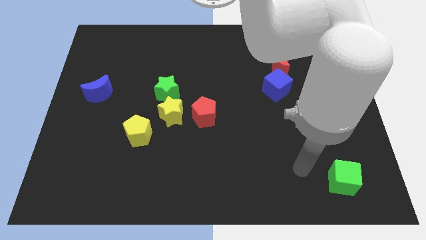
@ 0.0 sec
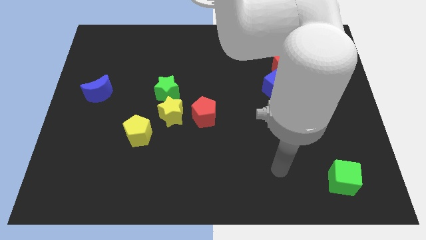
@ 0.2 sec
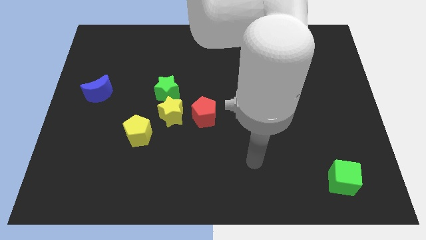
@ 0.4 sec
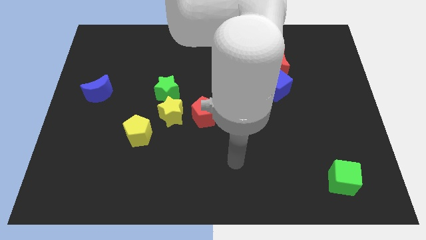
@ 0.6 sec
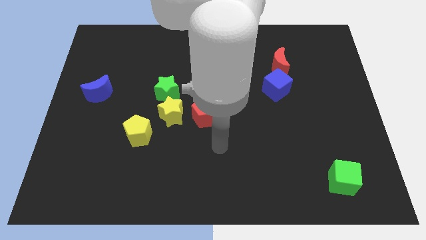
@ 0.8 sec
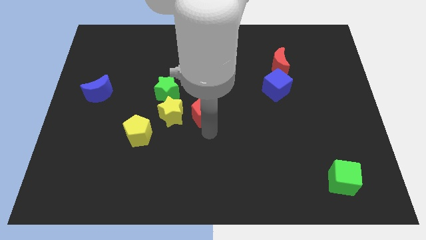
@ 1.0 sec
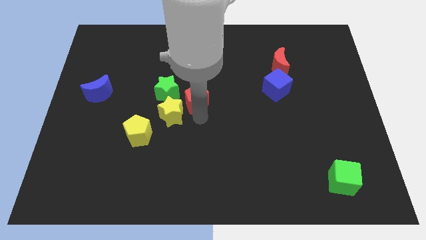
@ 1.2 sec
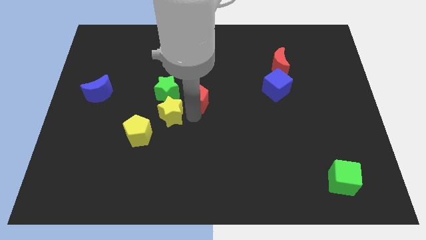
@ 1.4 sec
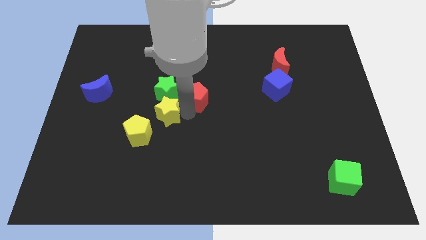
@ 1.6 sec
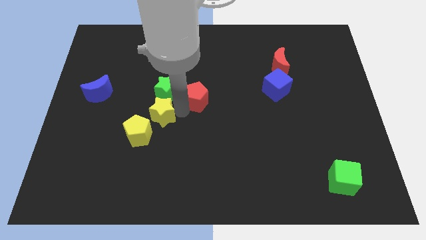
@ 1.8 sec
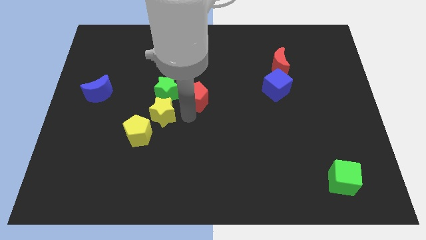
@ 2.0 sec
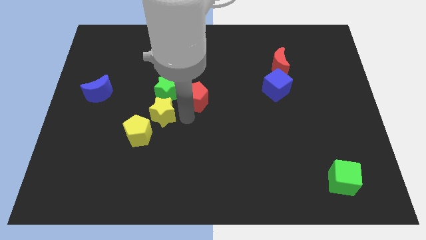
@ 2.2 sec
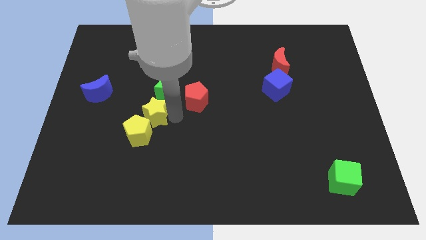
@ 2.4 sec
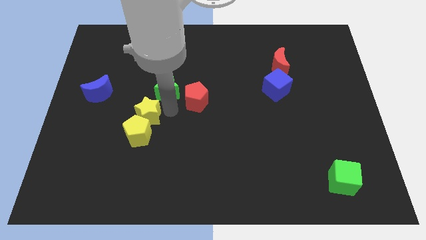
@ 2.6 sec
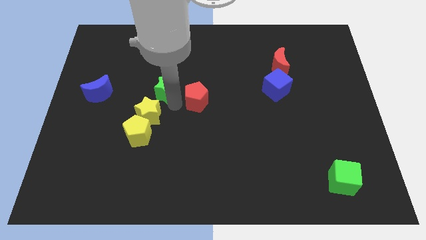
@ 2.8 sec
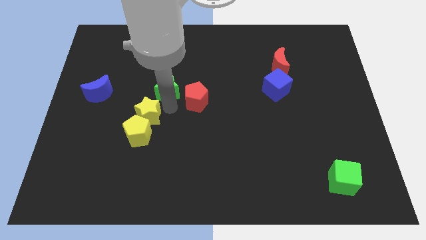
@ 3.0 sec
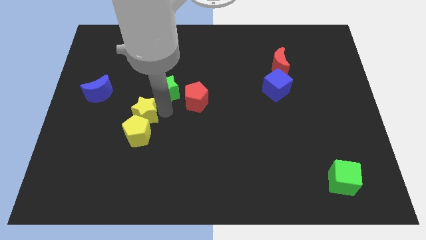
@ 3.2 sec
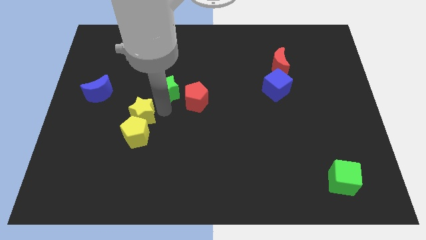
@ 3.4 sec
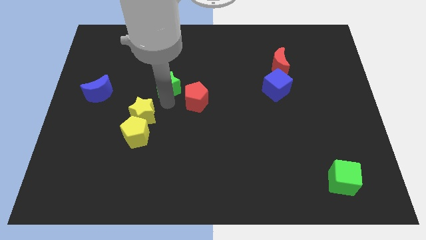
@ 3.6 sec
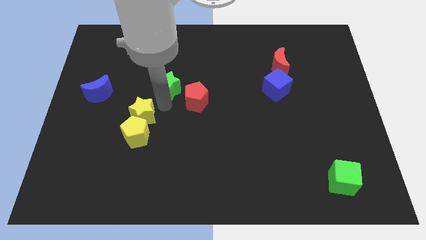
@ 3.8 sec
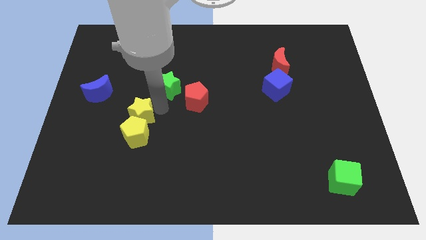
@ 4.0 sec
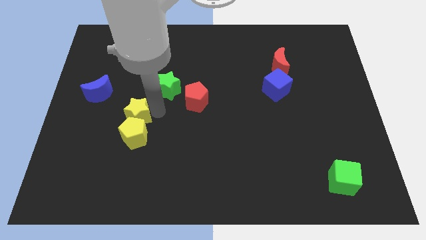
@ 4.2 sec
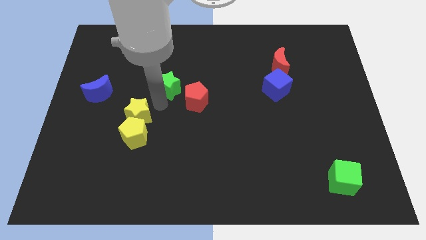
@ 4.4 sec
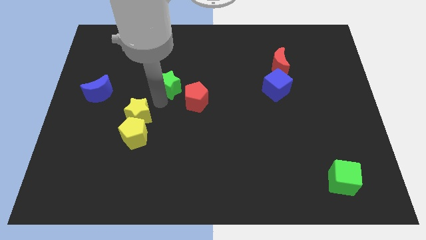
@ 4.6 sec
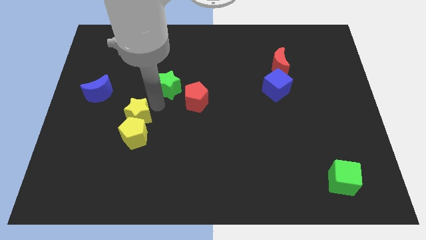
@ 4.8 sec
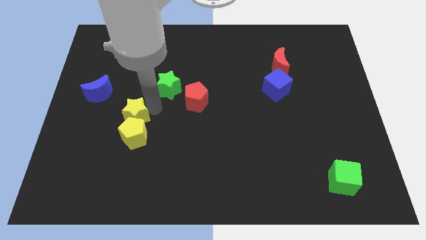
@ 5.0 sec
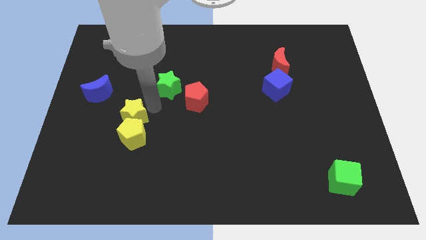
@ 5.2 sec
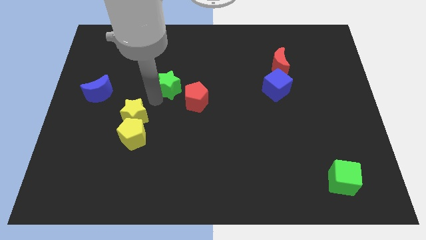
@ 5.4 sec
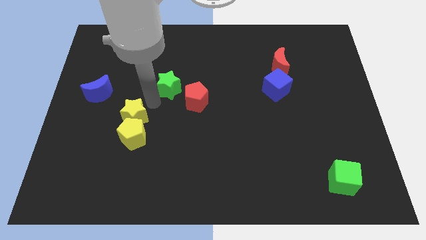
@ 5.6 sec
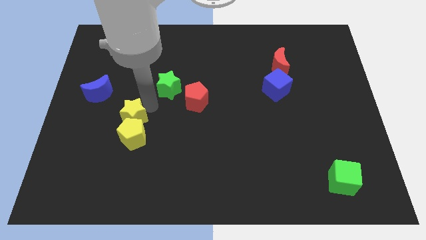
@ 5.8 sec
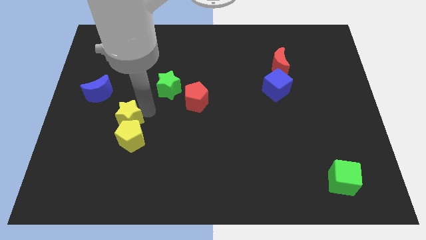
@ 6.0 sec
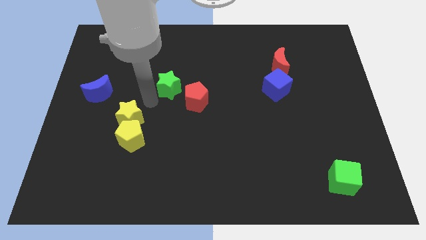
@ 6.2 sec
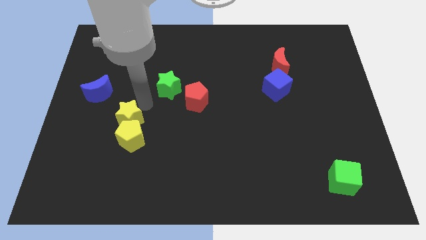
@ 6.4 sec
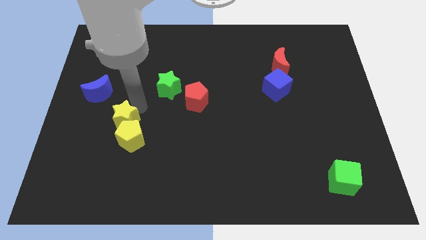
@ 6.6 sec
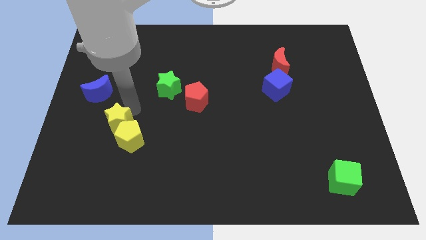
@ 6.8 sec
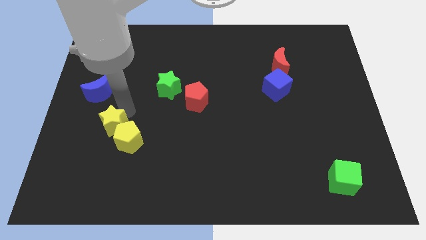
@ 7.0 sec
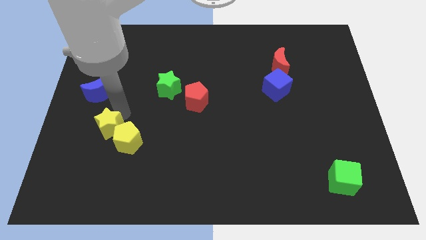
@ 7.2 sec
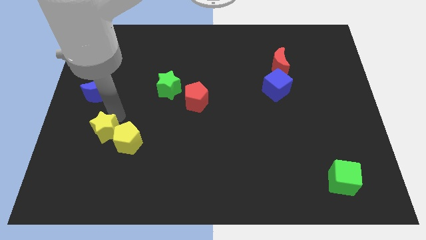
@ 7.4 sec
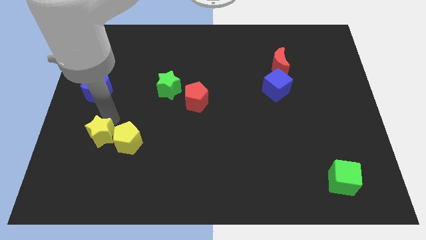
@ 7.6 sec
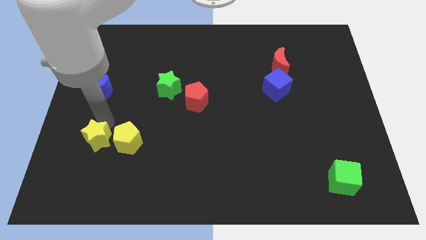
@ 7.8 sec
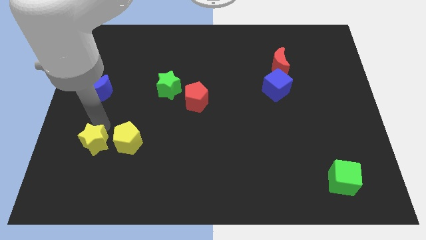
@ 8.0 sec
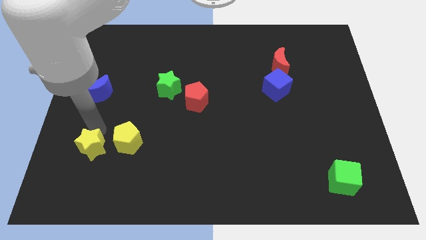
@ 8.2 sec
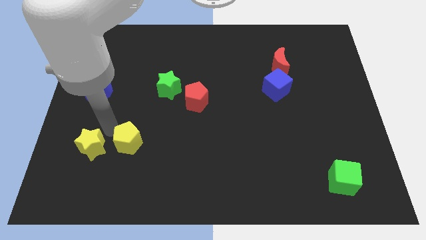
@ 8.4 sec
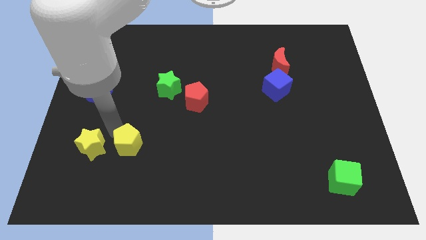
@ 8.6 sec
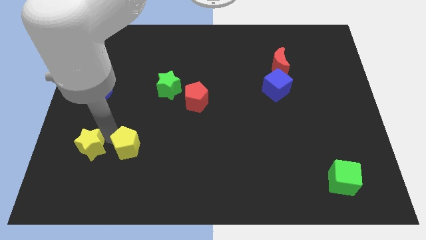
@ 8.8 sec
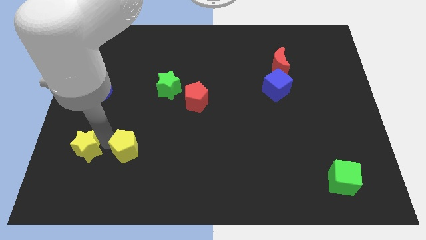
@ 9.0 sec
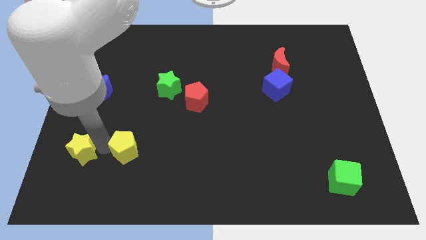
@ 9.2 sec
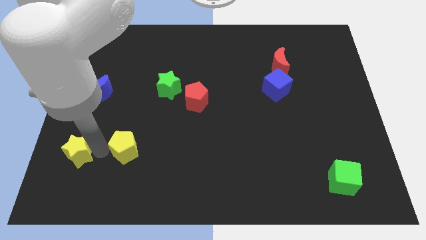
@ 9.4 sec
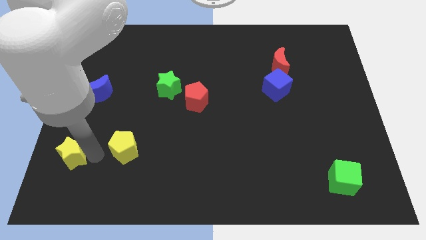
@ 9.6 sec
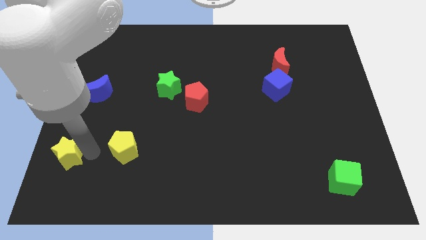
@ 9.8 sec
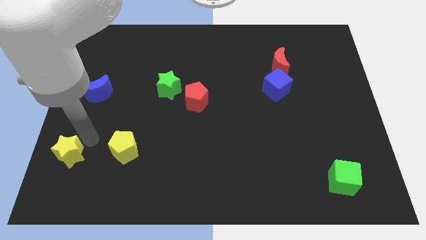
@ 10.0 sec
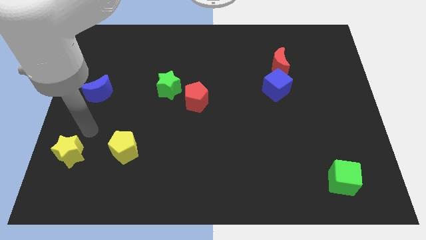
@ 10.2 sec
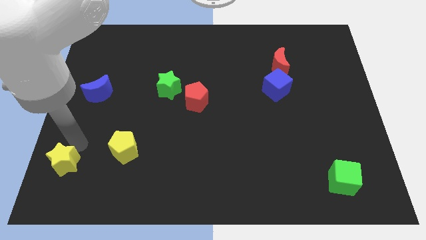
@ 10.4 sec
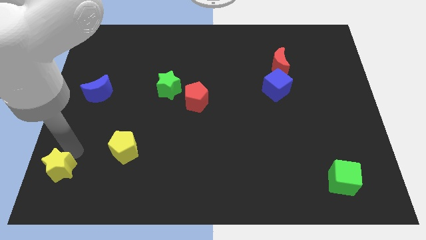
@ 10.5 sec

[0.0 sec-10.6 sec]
push the yellow star to the bottom left corner
